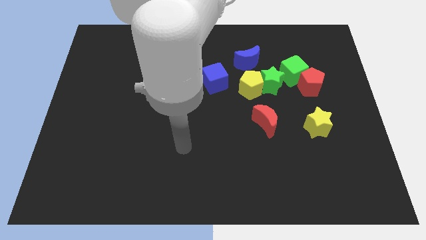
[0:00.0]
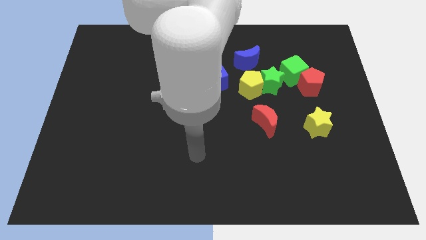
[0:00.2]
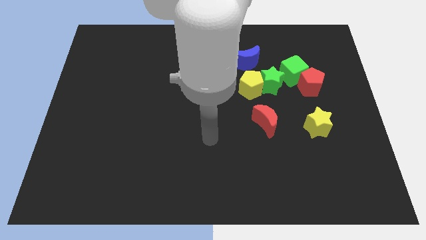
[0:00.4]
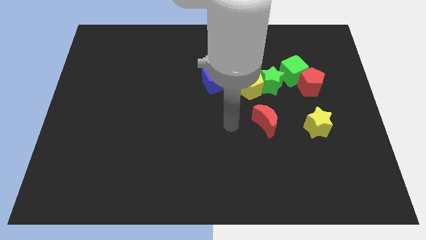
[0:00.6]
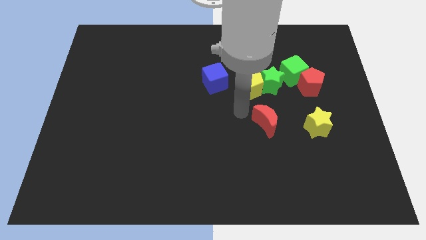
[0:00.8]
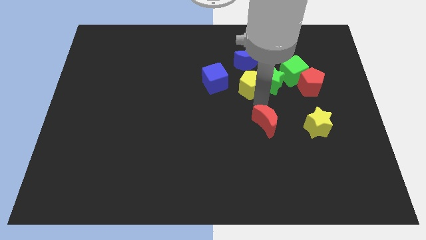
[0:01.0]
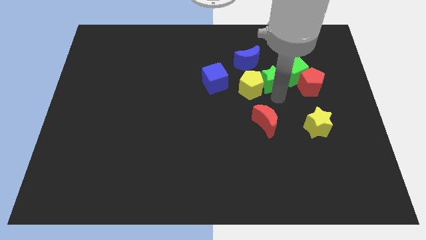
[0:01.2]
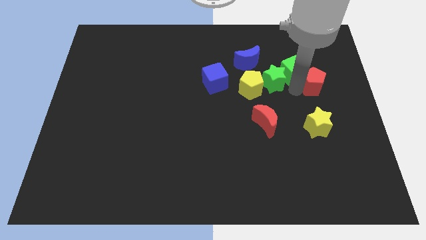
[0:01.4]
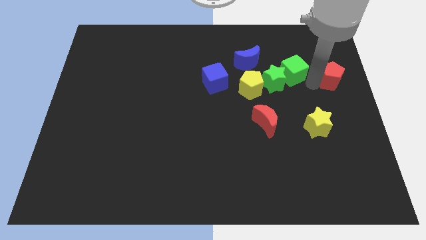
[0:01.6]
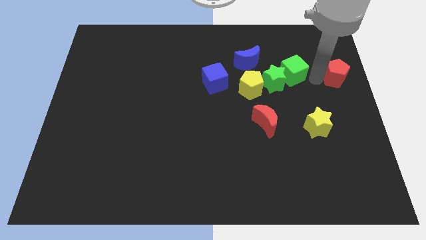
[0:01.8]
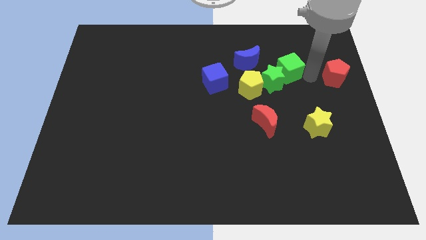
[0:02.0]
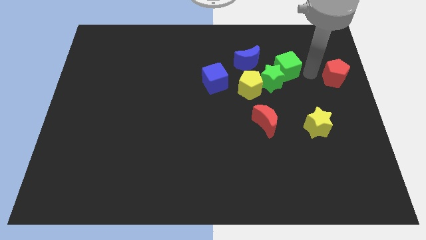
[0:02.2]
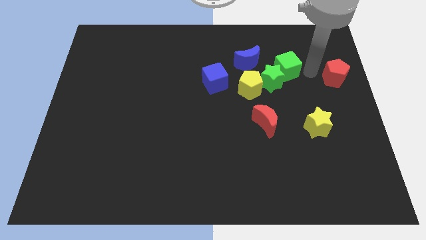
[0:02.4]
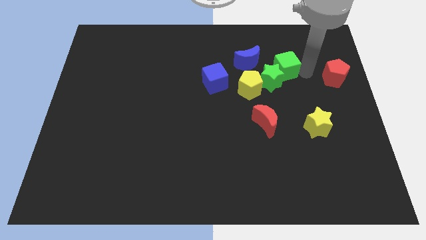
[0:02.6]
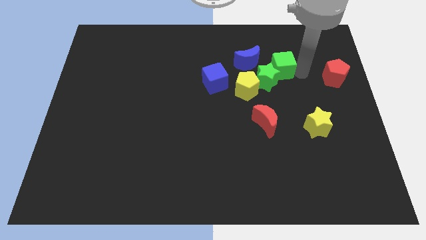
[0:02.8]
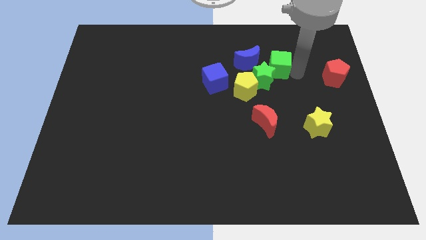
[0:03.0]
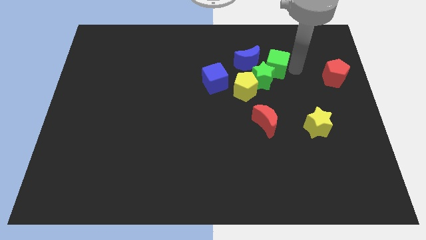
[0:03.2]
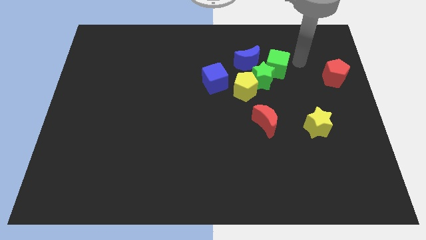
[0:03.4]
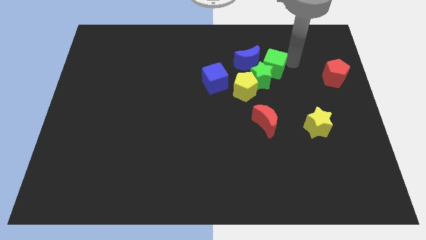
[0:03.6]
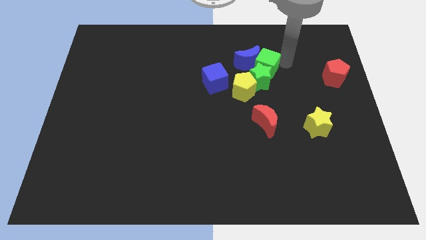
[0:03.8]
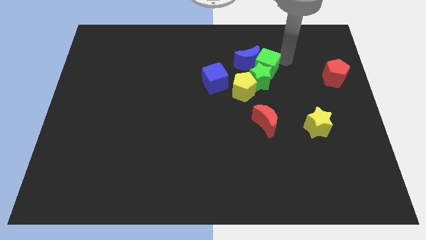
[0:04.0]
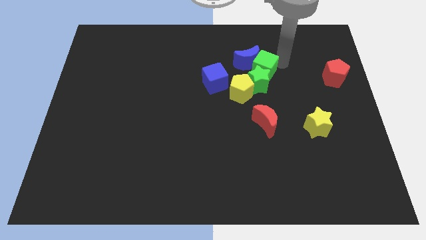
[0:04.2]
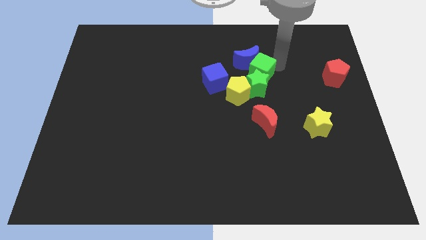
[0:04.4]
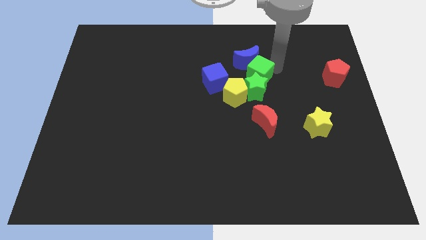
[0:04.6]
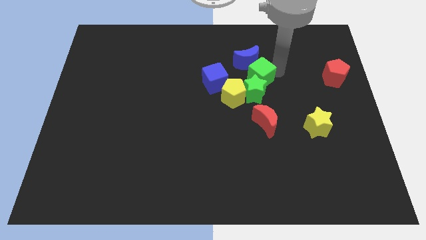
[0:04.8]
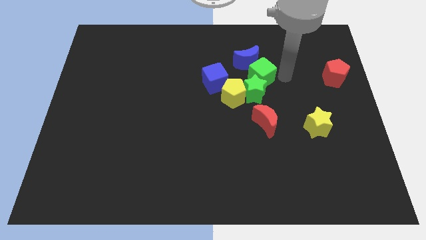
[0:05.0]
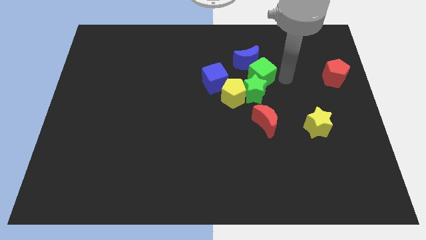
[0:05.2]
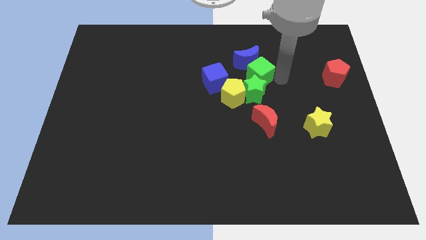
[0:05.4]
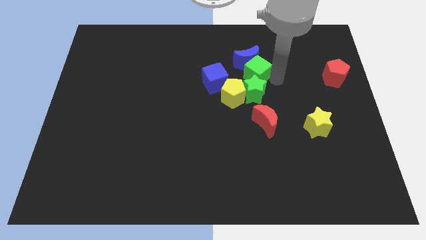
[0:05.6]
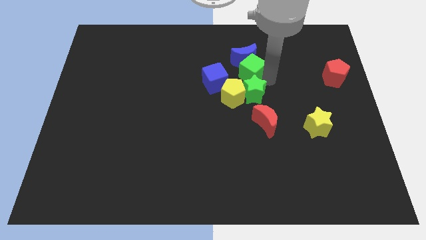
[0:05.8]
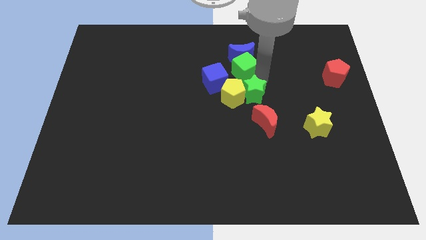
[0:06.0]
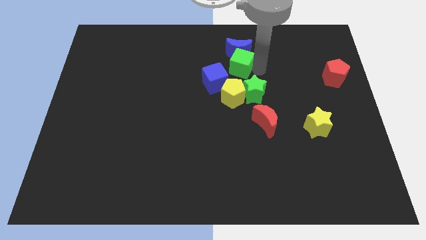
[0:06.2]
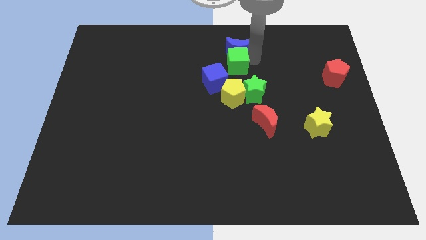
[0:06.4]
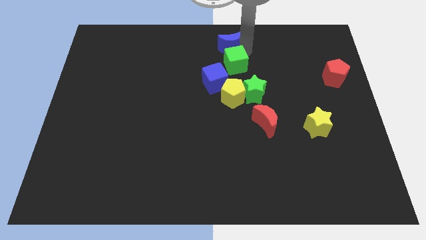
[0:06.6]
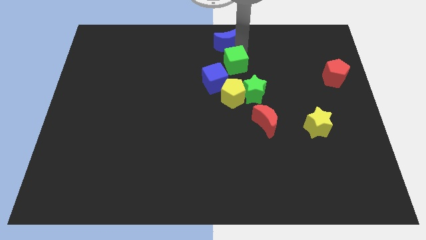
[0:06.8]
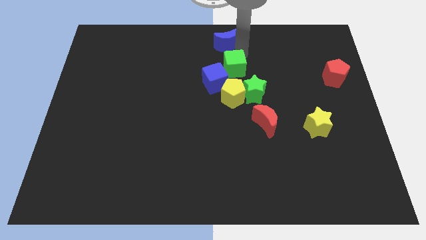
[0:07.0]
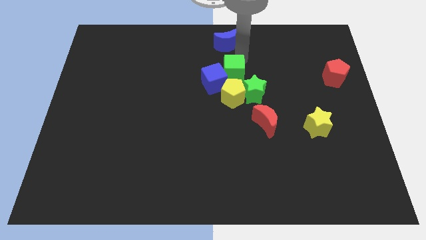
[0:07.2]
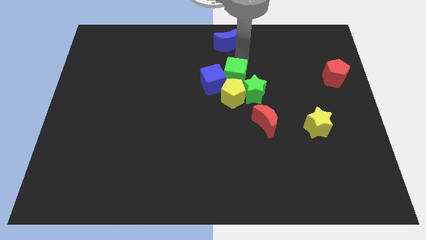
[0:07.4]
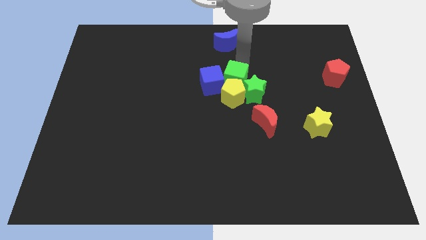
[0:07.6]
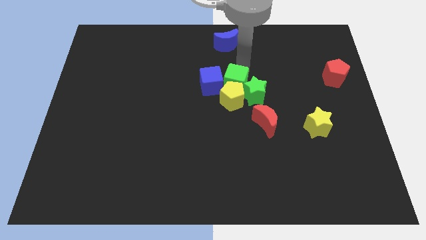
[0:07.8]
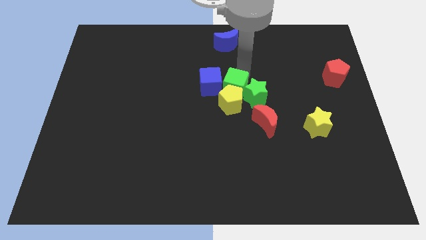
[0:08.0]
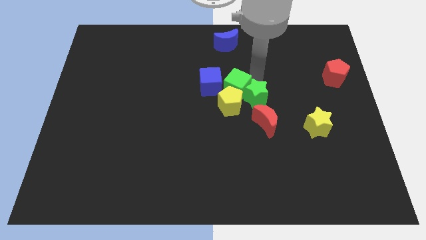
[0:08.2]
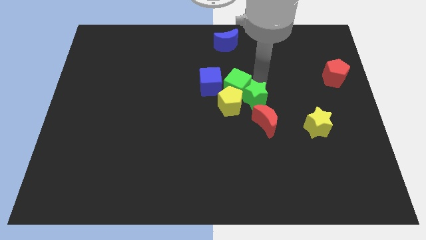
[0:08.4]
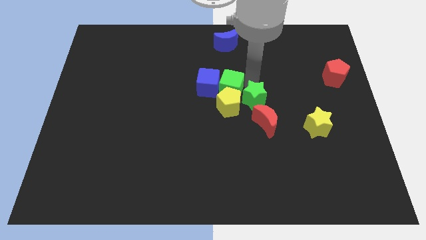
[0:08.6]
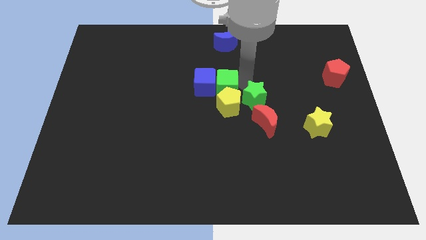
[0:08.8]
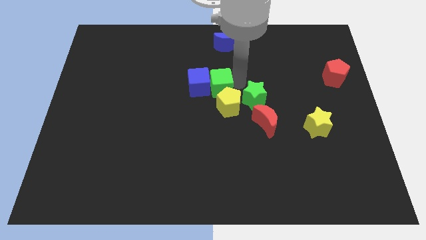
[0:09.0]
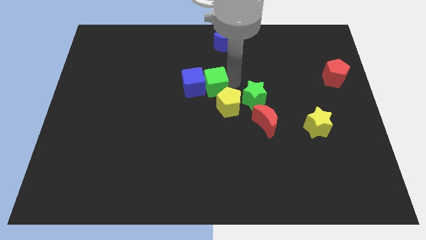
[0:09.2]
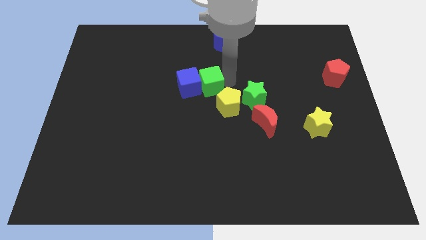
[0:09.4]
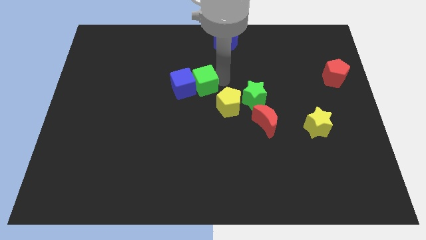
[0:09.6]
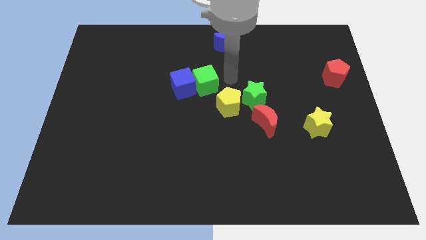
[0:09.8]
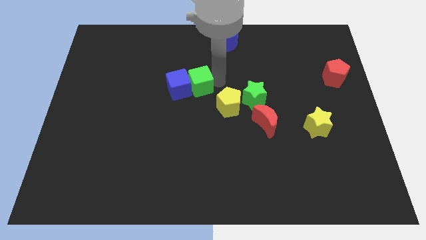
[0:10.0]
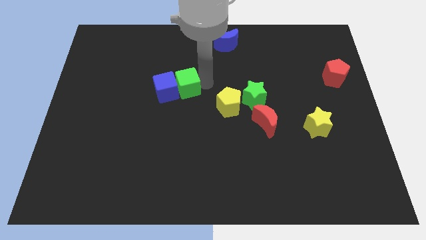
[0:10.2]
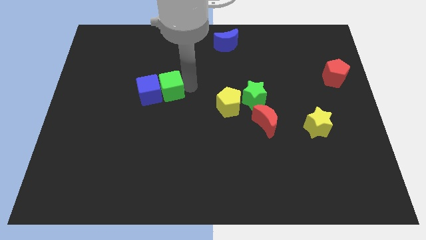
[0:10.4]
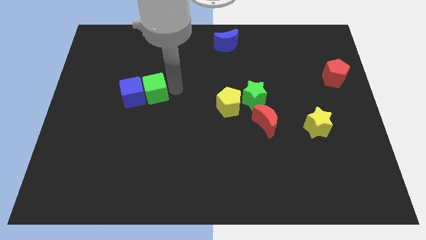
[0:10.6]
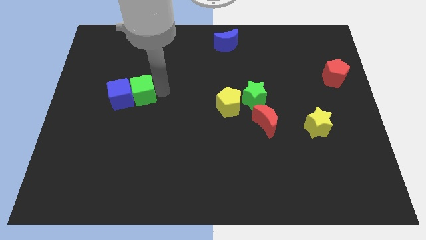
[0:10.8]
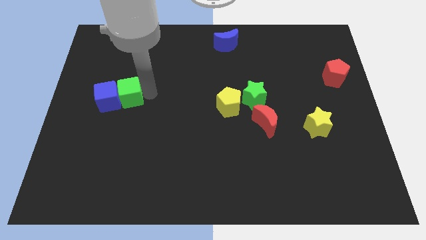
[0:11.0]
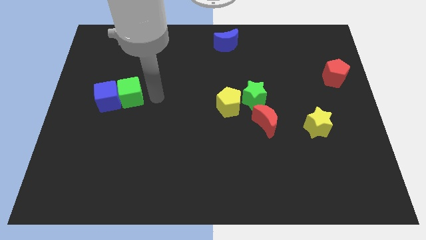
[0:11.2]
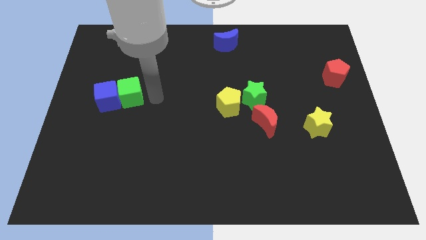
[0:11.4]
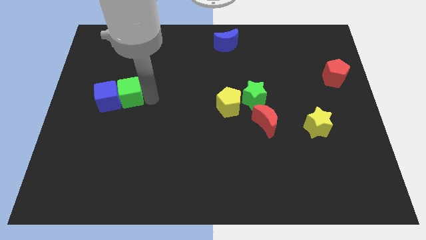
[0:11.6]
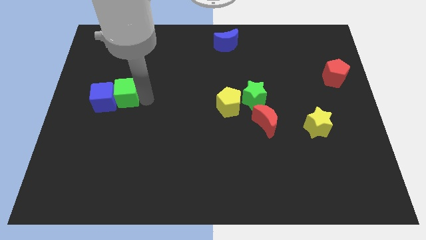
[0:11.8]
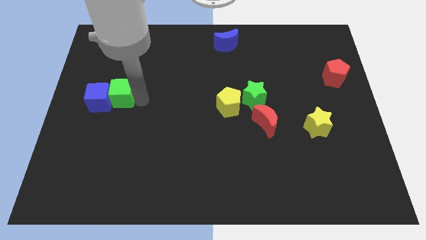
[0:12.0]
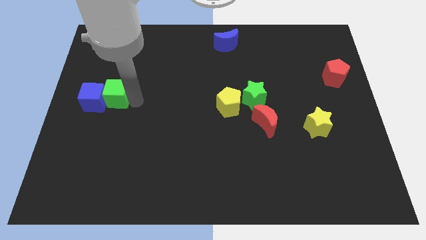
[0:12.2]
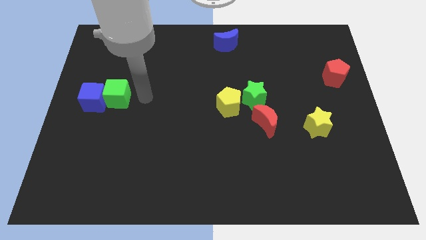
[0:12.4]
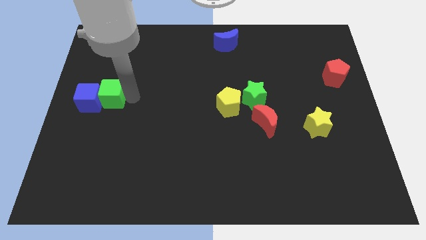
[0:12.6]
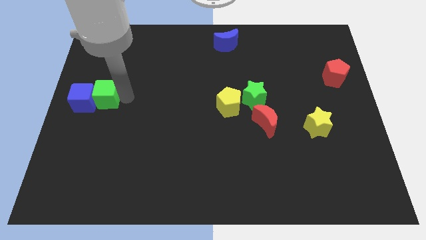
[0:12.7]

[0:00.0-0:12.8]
slide the green cube to the left side

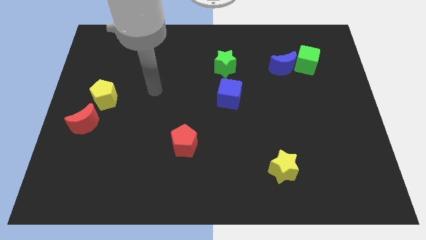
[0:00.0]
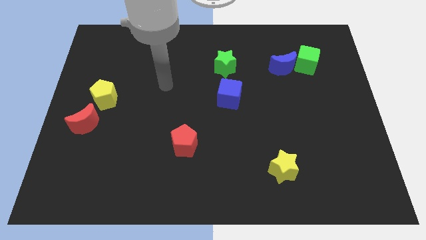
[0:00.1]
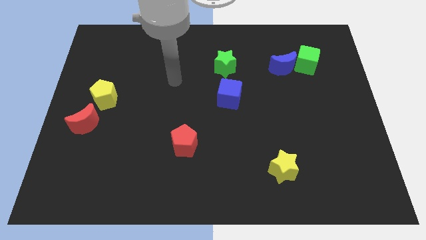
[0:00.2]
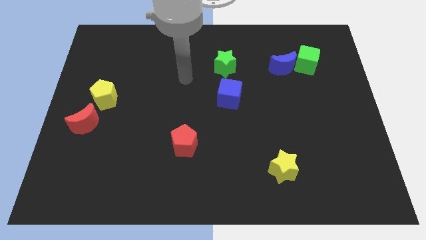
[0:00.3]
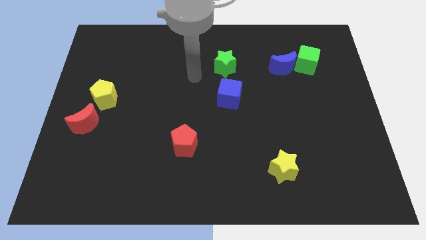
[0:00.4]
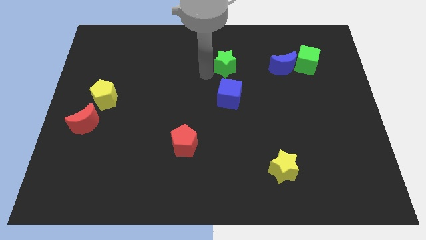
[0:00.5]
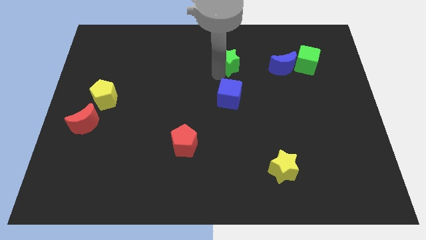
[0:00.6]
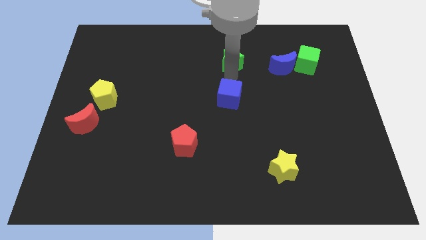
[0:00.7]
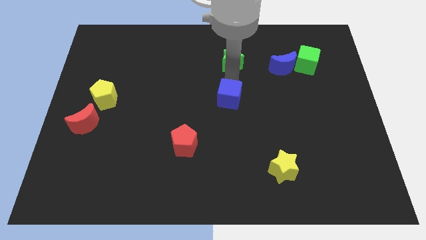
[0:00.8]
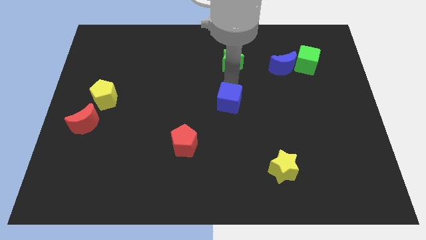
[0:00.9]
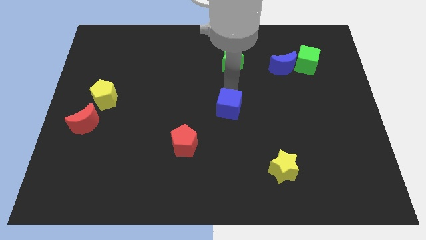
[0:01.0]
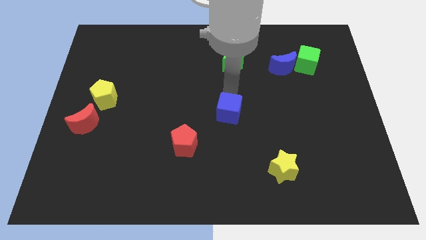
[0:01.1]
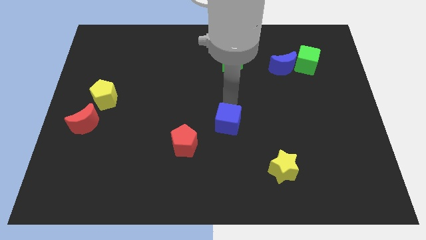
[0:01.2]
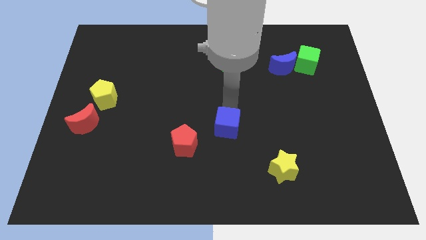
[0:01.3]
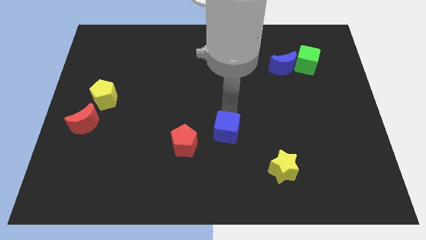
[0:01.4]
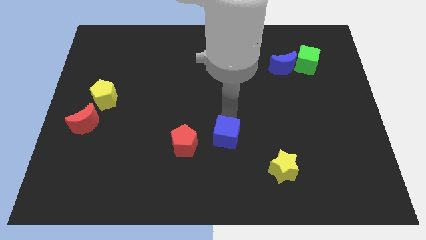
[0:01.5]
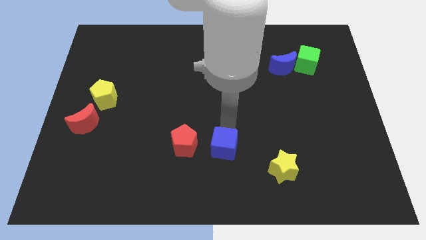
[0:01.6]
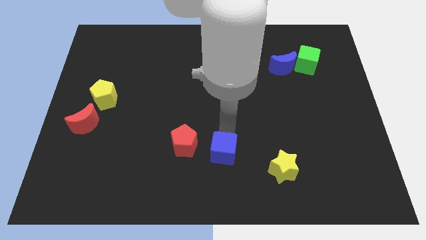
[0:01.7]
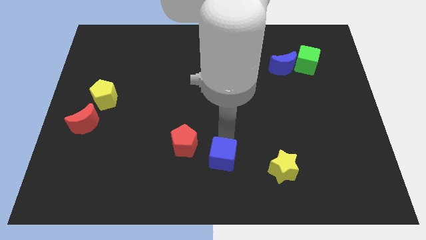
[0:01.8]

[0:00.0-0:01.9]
push the blue cube to the bottom
